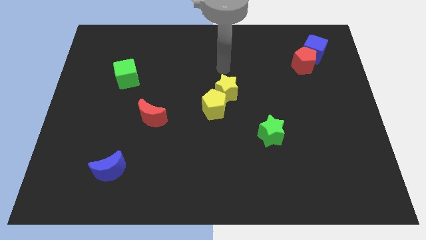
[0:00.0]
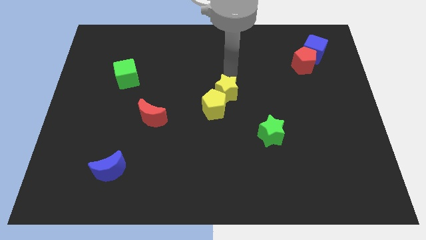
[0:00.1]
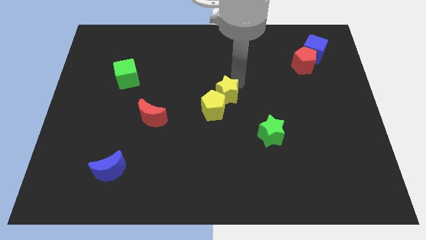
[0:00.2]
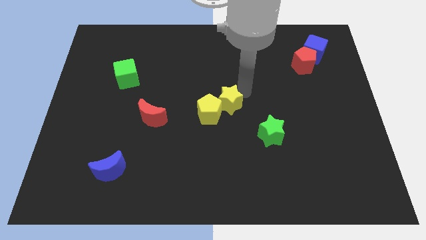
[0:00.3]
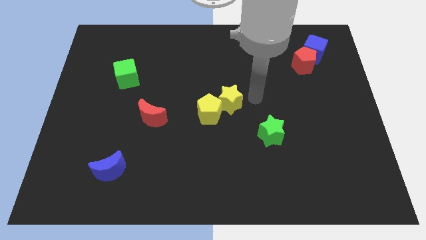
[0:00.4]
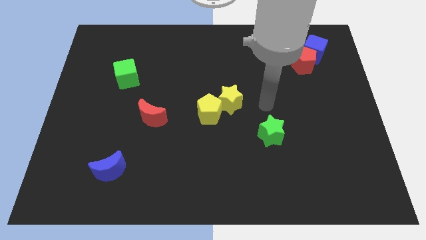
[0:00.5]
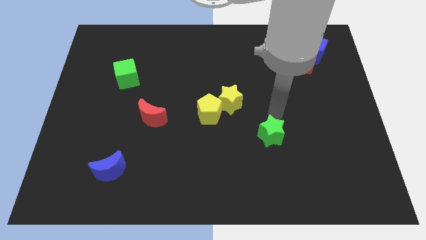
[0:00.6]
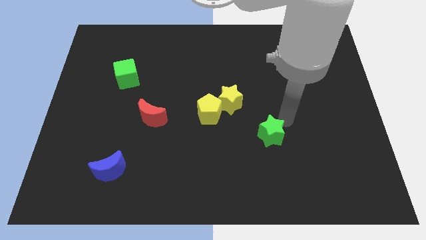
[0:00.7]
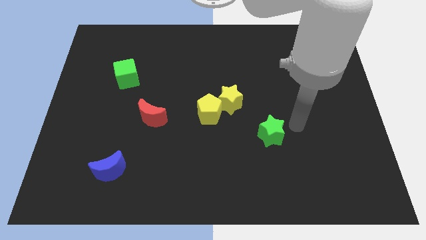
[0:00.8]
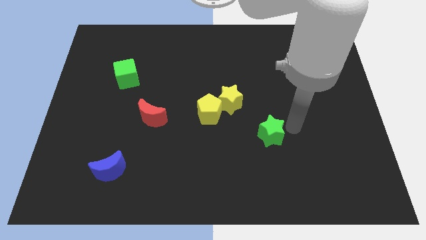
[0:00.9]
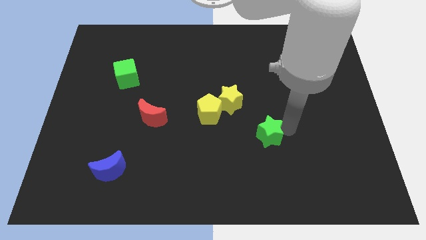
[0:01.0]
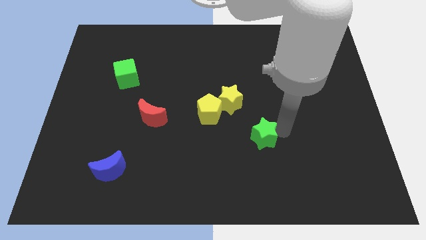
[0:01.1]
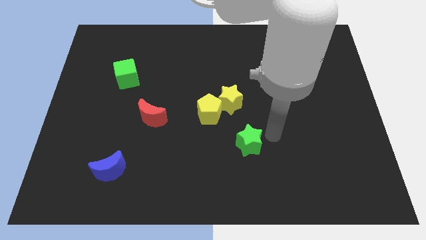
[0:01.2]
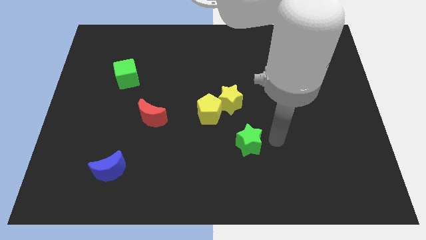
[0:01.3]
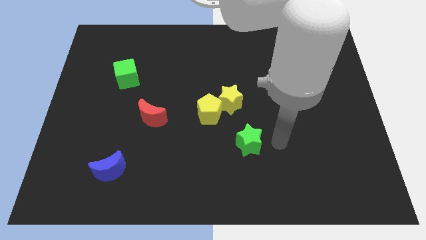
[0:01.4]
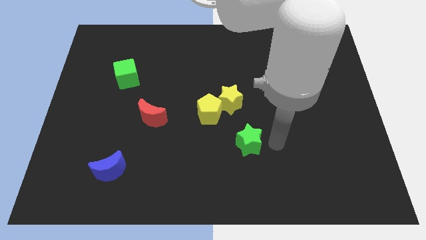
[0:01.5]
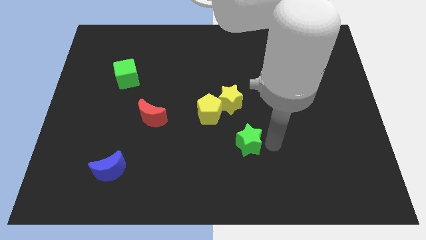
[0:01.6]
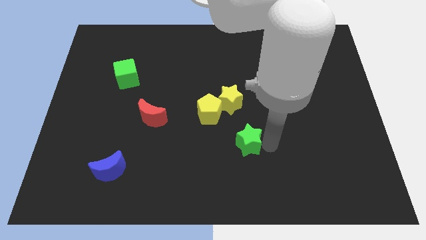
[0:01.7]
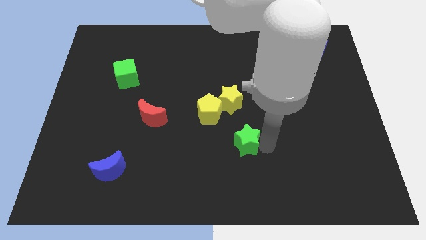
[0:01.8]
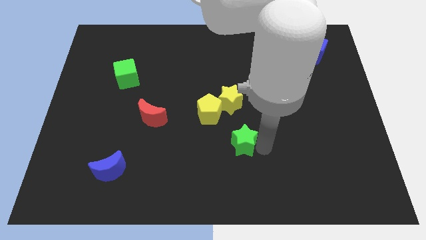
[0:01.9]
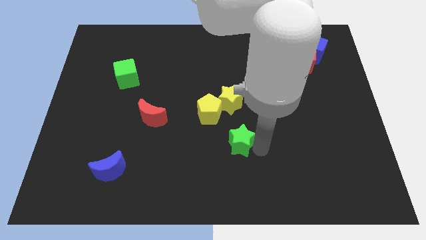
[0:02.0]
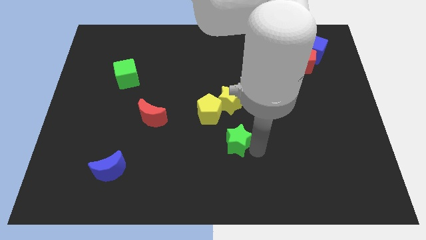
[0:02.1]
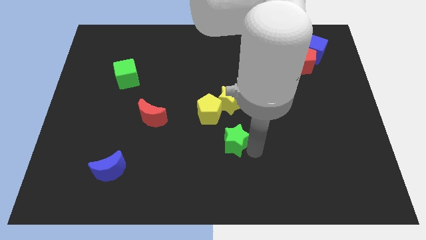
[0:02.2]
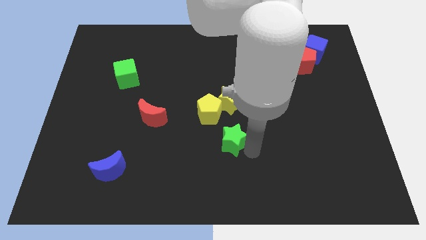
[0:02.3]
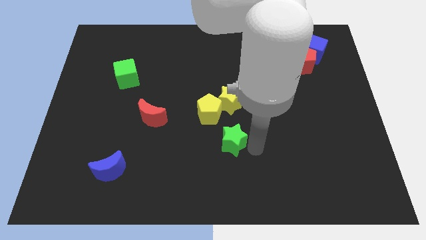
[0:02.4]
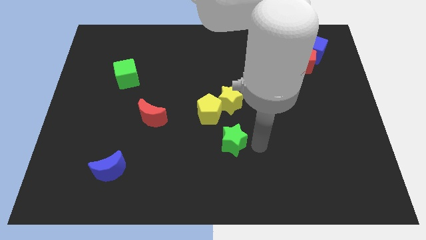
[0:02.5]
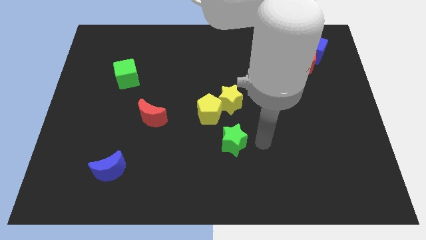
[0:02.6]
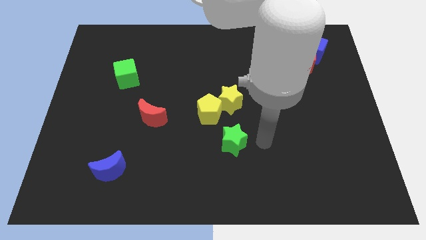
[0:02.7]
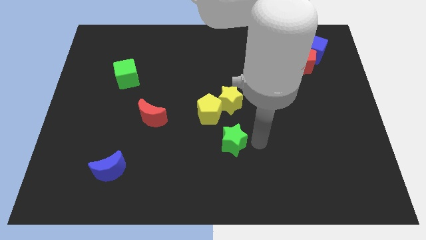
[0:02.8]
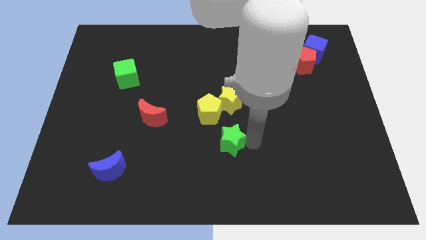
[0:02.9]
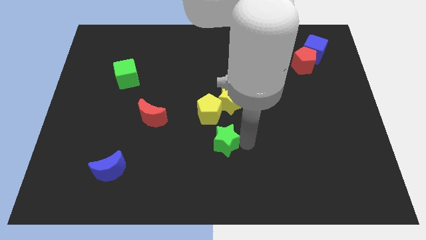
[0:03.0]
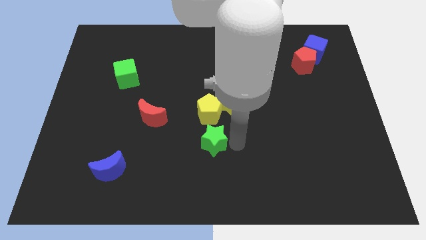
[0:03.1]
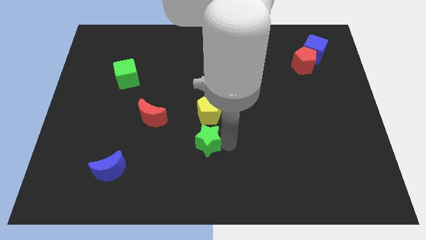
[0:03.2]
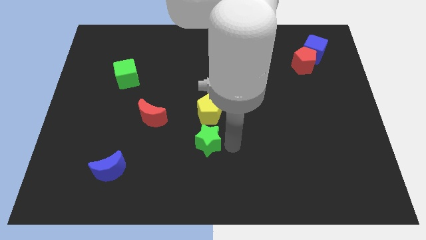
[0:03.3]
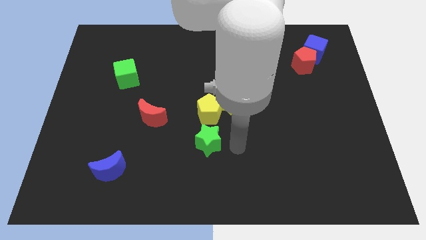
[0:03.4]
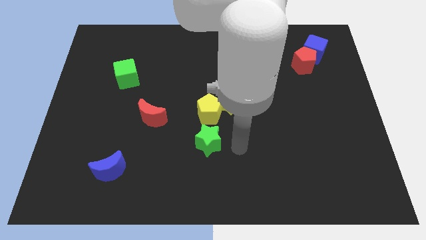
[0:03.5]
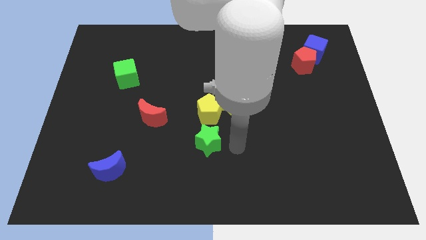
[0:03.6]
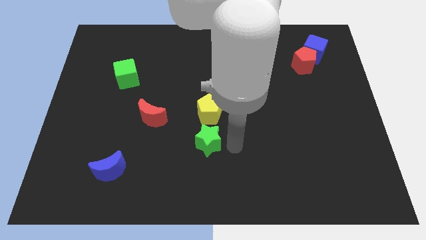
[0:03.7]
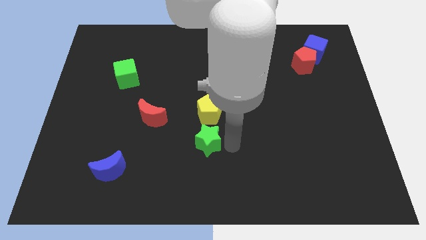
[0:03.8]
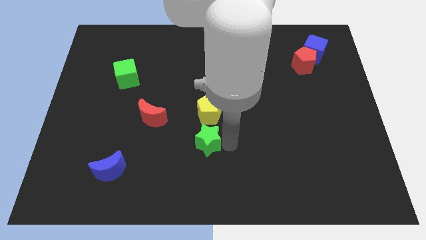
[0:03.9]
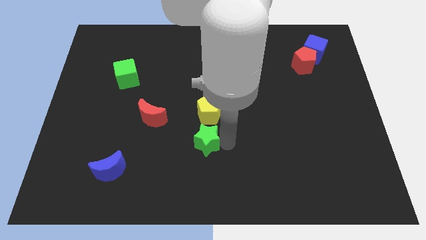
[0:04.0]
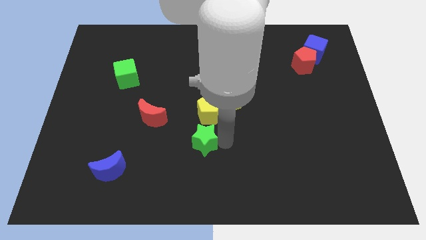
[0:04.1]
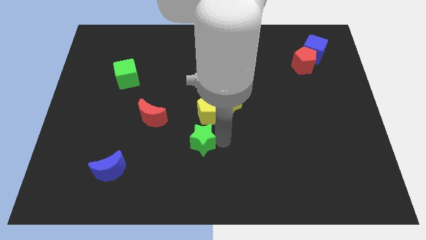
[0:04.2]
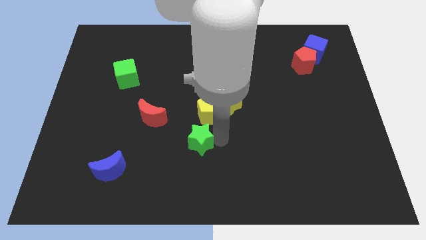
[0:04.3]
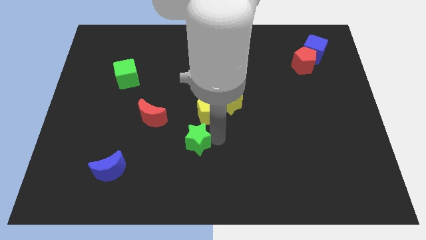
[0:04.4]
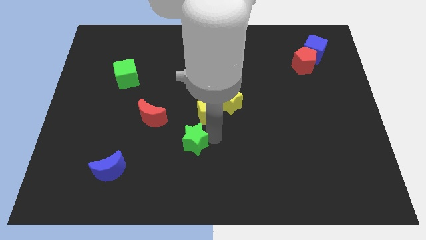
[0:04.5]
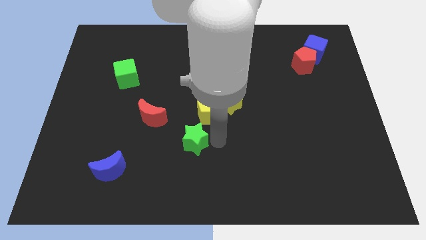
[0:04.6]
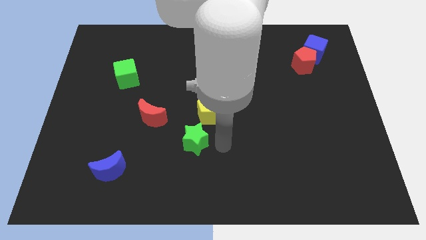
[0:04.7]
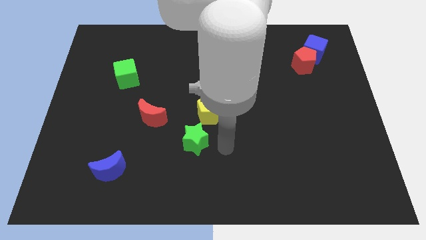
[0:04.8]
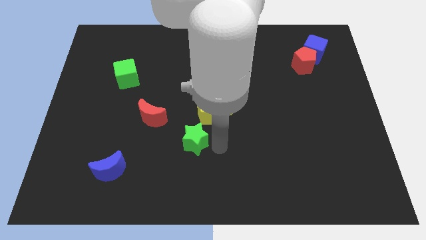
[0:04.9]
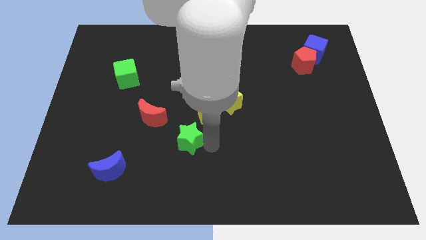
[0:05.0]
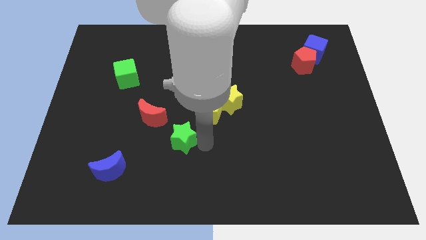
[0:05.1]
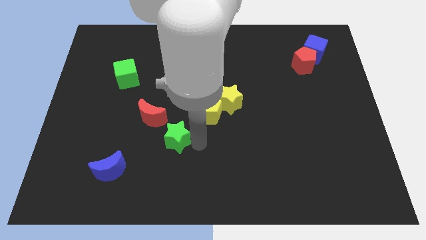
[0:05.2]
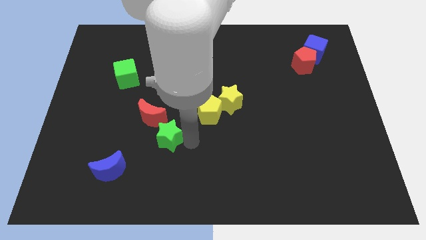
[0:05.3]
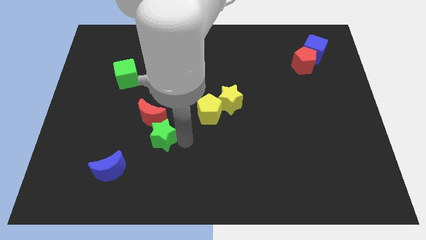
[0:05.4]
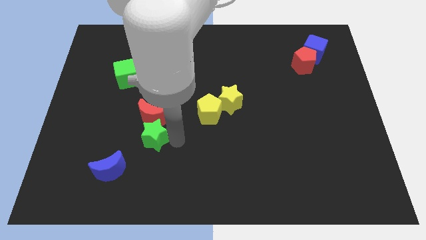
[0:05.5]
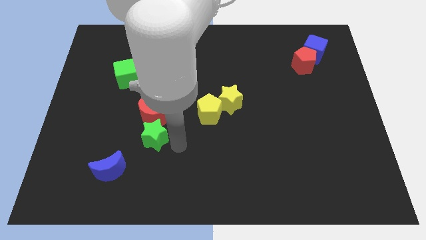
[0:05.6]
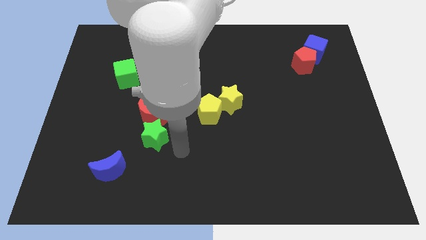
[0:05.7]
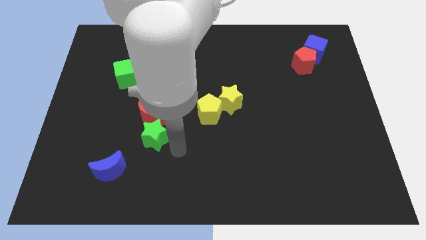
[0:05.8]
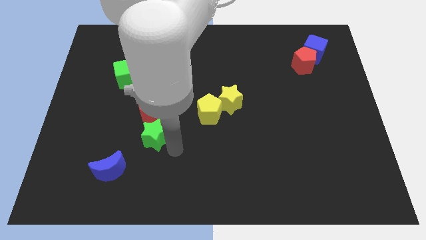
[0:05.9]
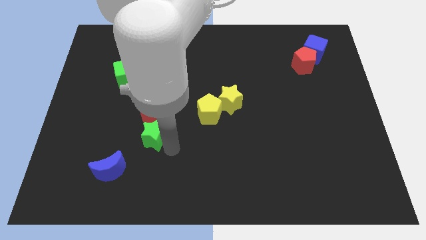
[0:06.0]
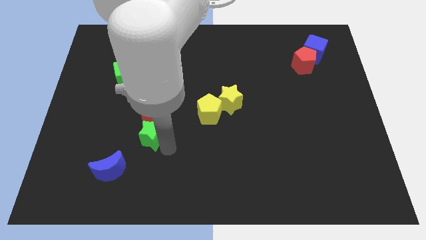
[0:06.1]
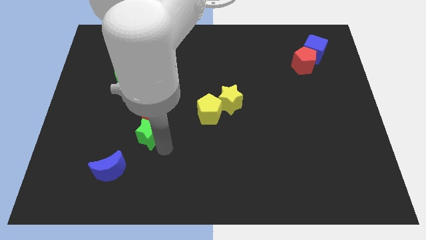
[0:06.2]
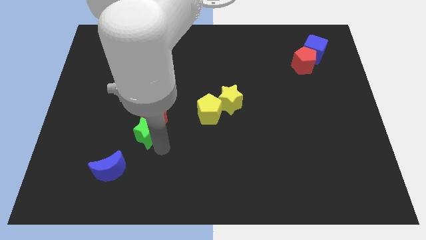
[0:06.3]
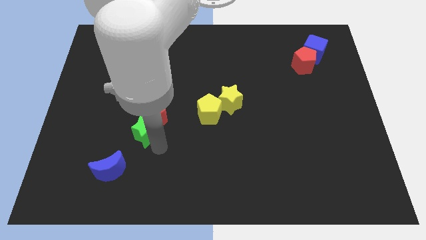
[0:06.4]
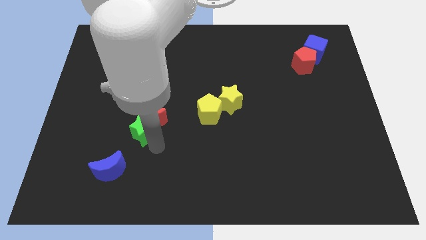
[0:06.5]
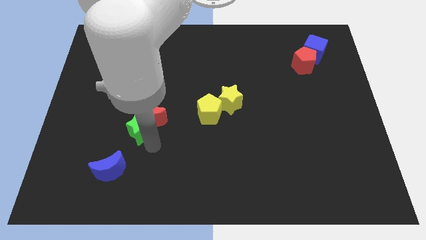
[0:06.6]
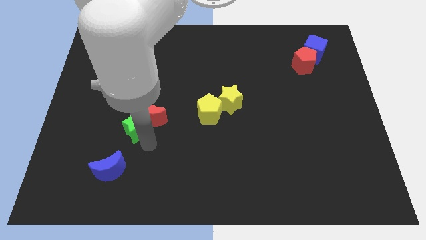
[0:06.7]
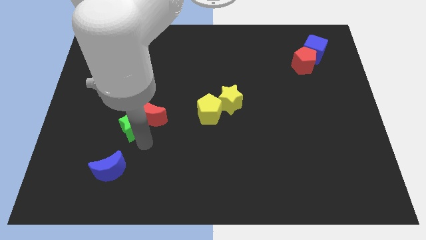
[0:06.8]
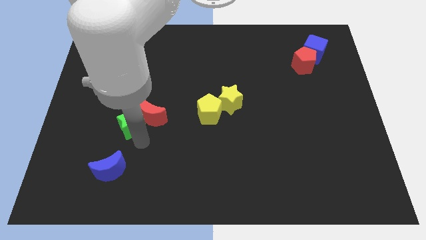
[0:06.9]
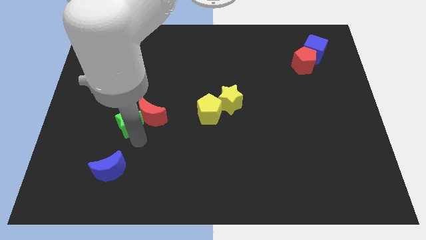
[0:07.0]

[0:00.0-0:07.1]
put the green star below the green cube

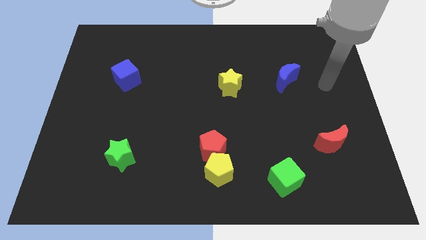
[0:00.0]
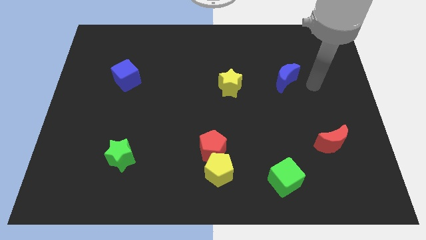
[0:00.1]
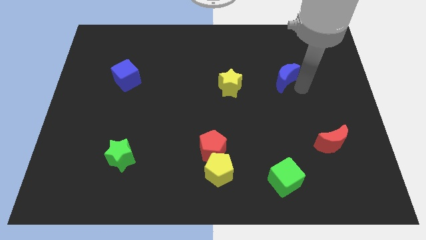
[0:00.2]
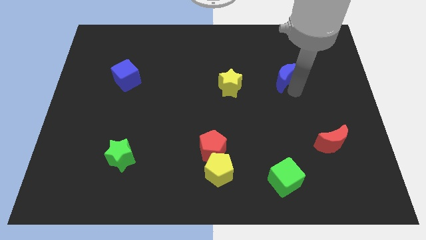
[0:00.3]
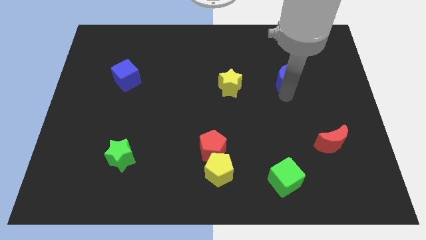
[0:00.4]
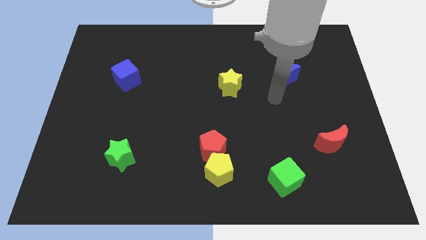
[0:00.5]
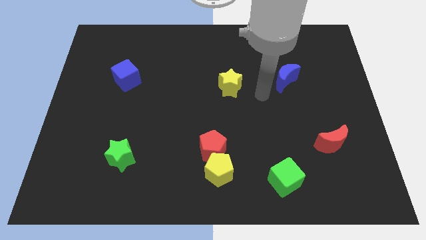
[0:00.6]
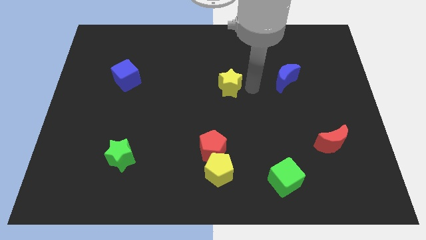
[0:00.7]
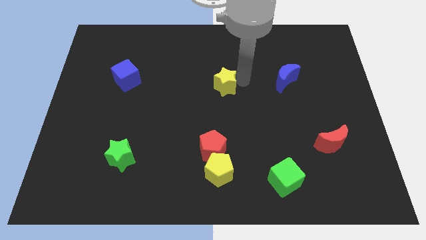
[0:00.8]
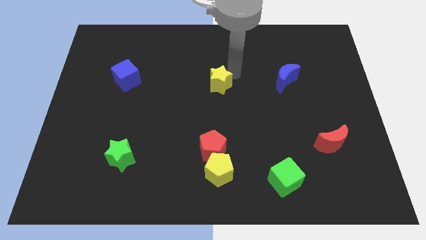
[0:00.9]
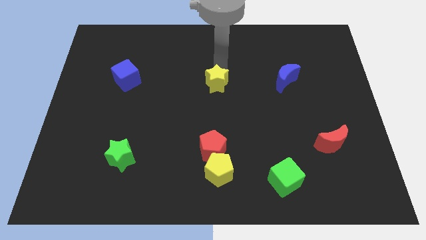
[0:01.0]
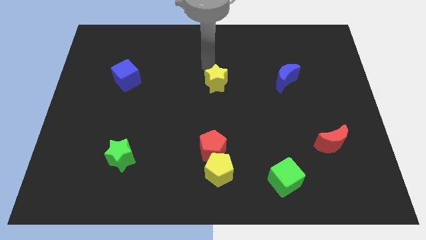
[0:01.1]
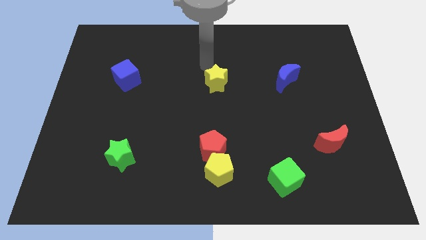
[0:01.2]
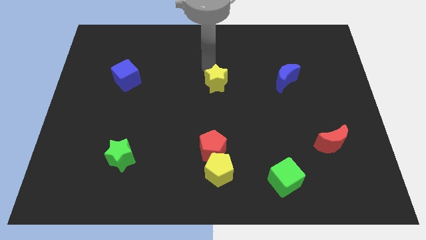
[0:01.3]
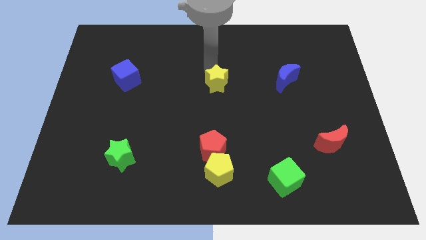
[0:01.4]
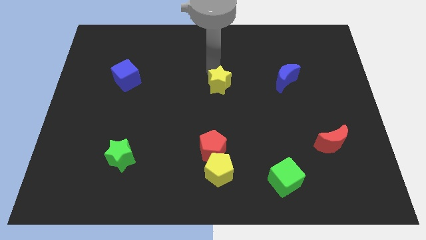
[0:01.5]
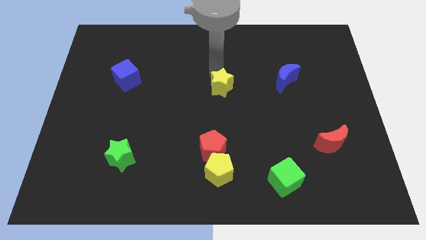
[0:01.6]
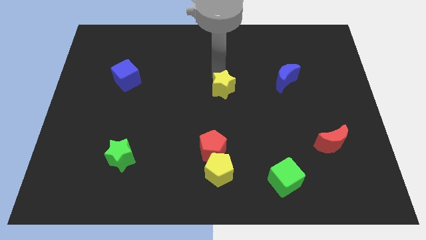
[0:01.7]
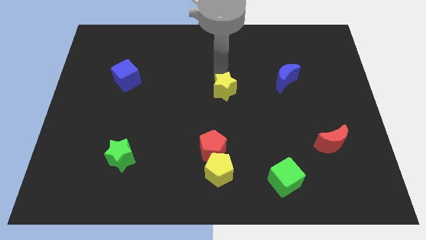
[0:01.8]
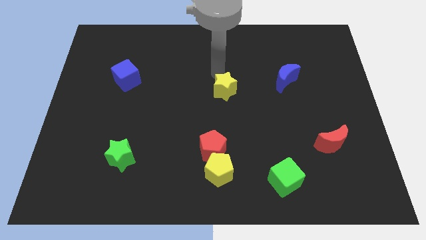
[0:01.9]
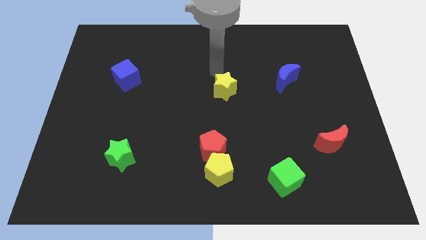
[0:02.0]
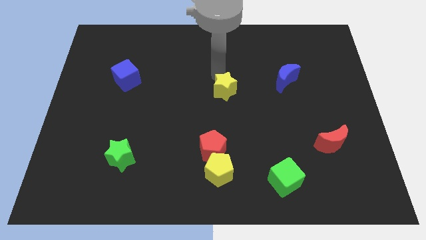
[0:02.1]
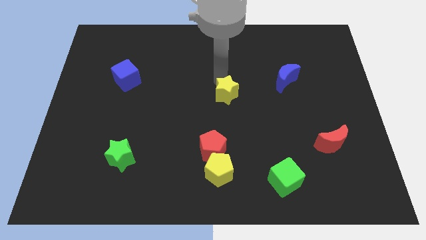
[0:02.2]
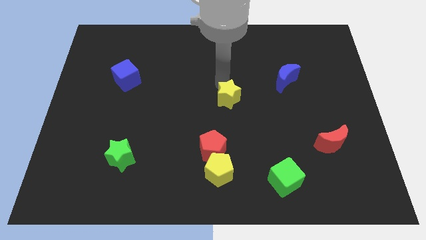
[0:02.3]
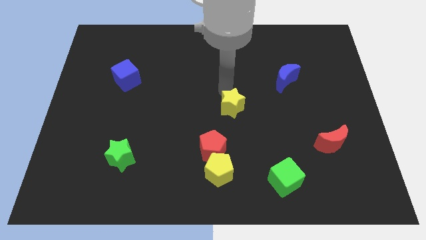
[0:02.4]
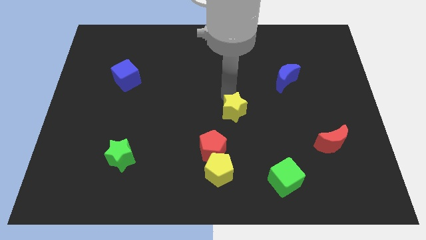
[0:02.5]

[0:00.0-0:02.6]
push the yellow star to the top right of the red pentagon
